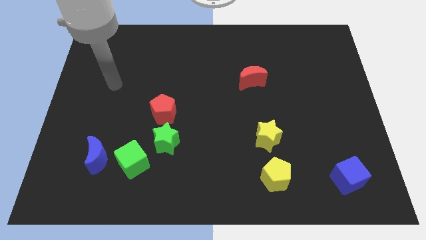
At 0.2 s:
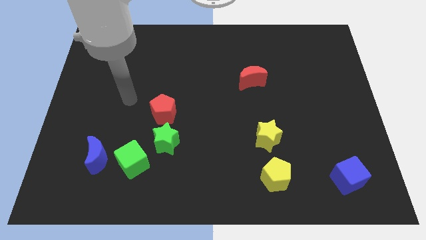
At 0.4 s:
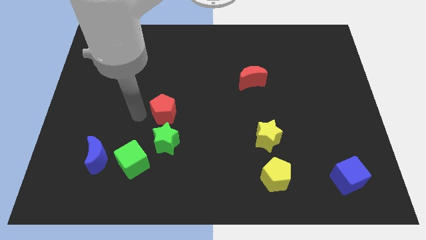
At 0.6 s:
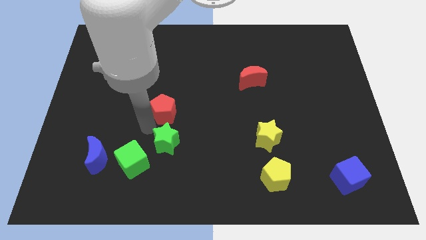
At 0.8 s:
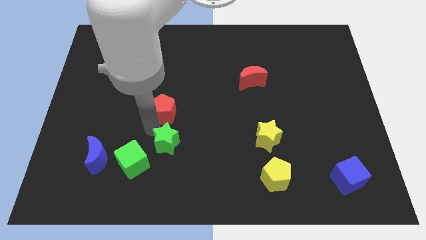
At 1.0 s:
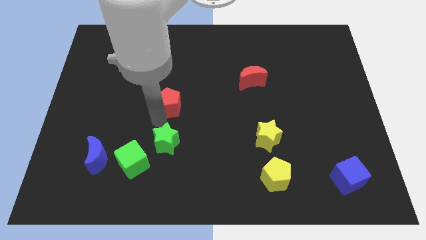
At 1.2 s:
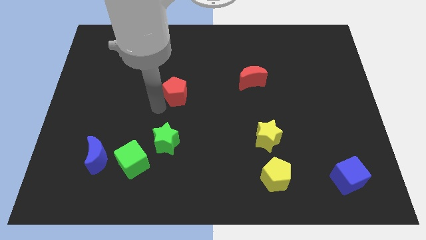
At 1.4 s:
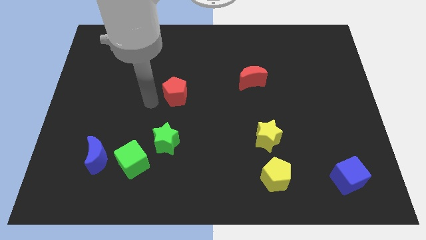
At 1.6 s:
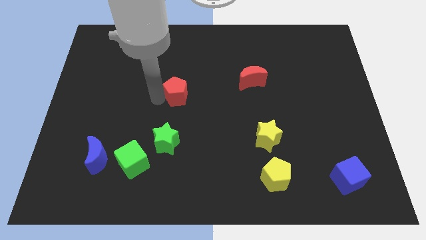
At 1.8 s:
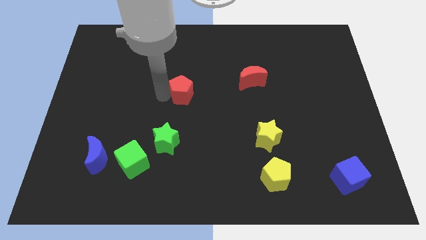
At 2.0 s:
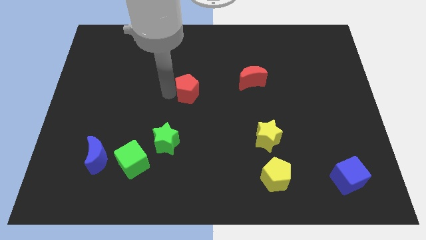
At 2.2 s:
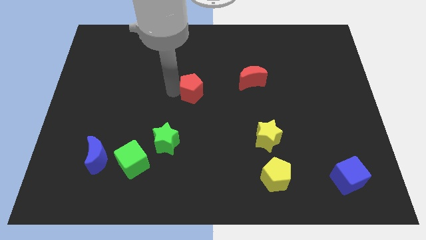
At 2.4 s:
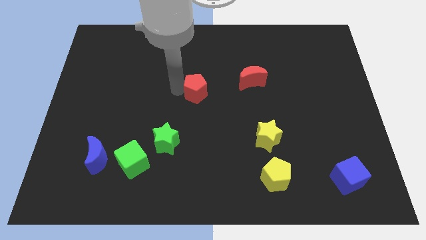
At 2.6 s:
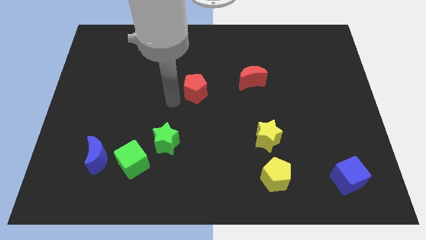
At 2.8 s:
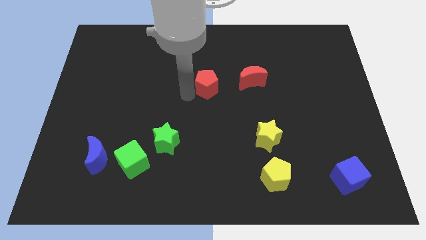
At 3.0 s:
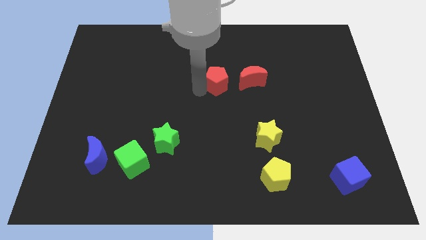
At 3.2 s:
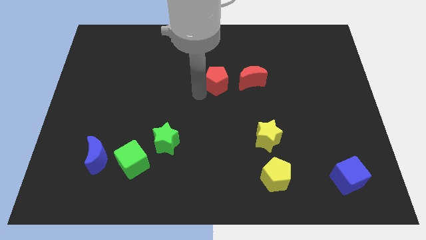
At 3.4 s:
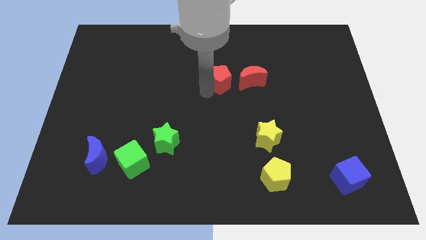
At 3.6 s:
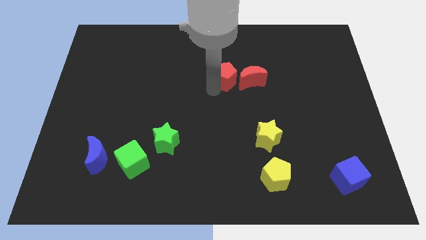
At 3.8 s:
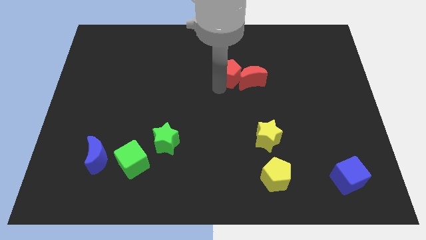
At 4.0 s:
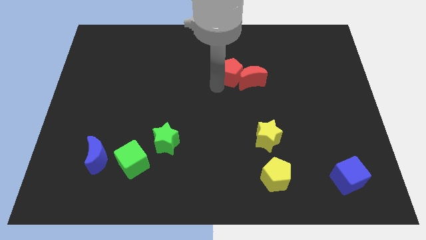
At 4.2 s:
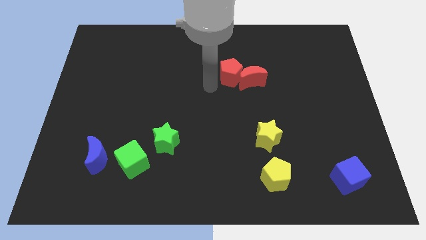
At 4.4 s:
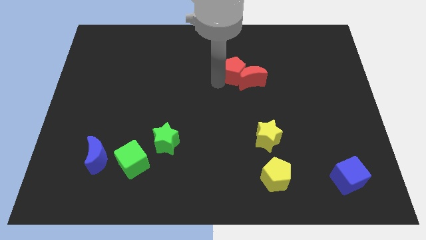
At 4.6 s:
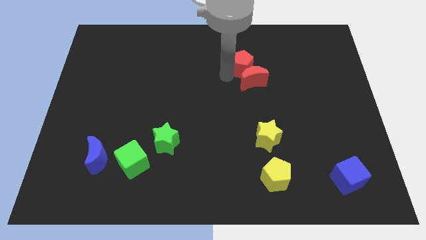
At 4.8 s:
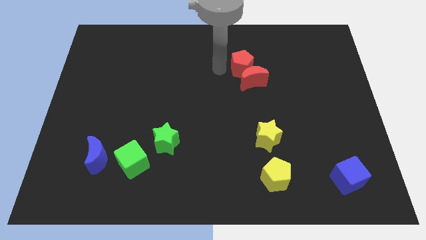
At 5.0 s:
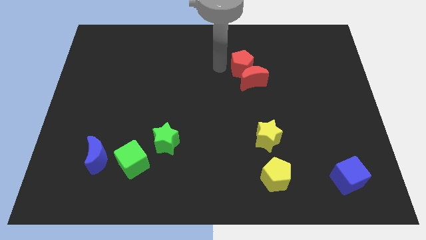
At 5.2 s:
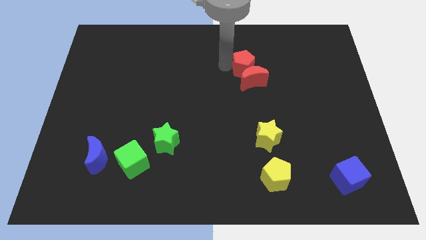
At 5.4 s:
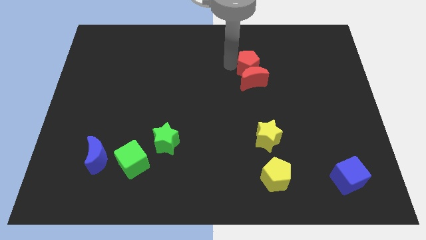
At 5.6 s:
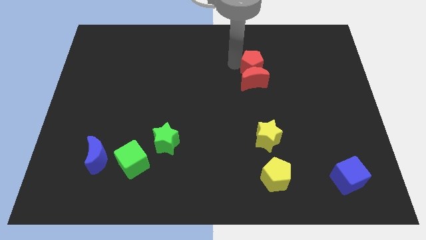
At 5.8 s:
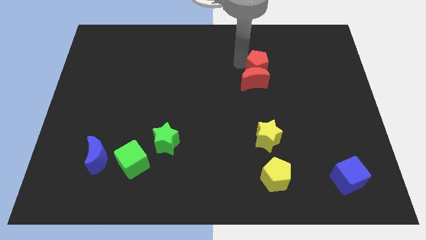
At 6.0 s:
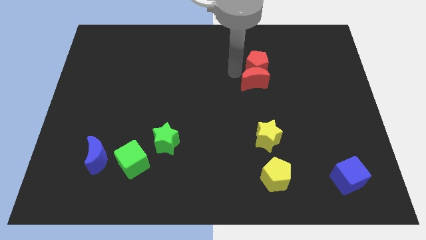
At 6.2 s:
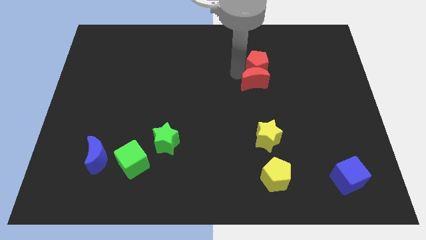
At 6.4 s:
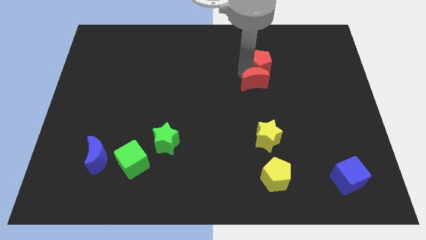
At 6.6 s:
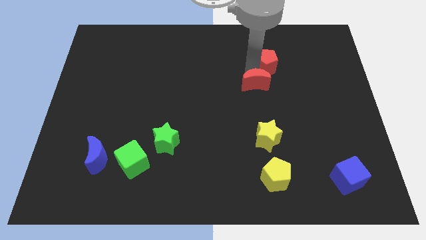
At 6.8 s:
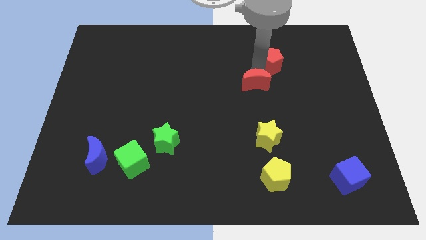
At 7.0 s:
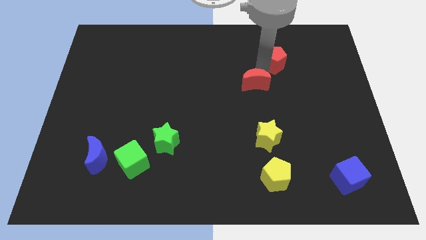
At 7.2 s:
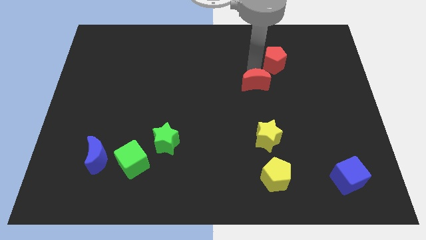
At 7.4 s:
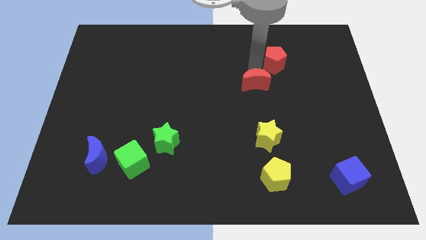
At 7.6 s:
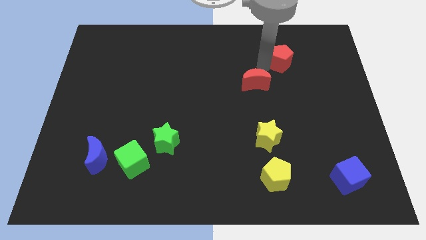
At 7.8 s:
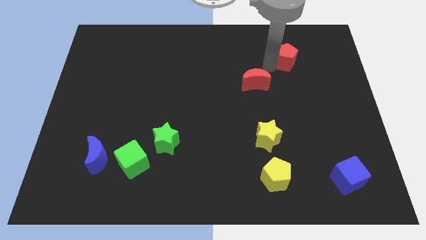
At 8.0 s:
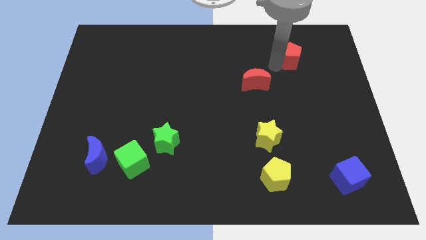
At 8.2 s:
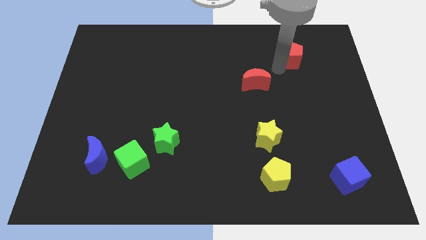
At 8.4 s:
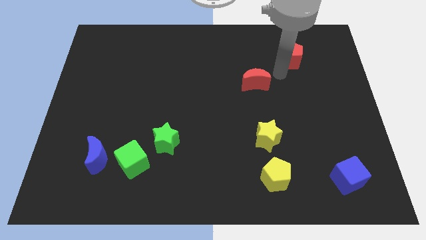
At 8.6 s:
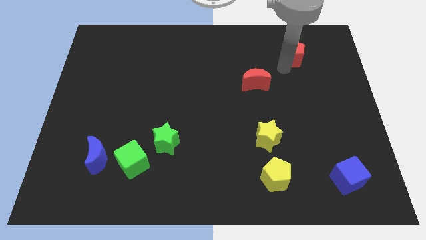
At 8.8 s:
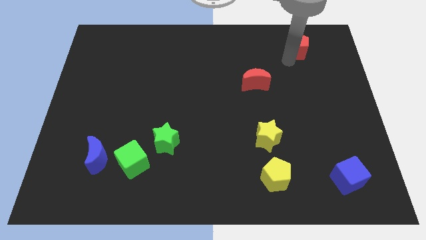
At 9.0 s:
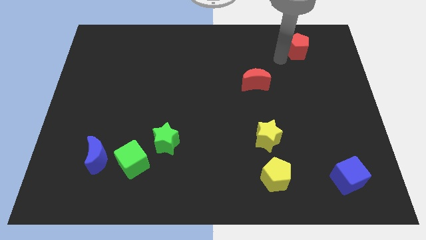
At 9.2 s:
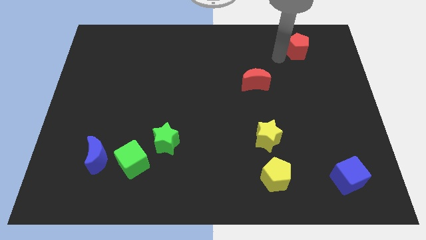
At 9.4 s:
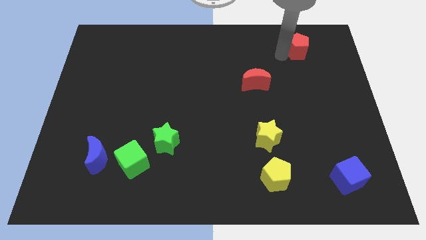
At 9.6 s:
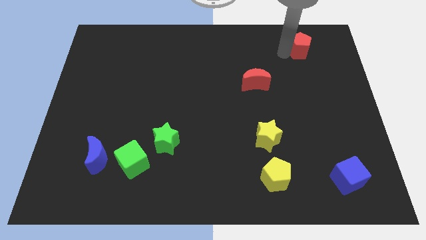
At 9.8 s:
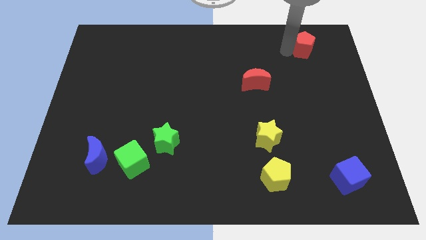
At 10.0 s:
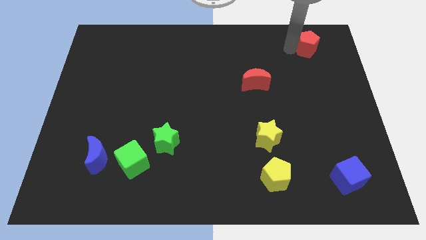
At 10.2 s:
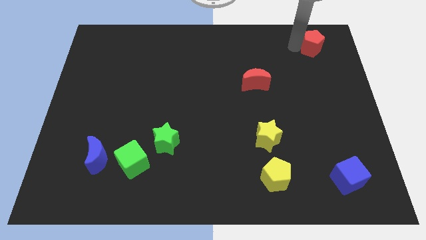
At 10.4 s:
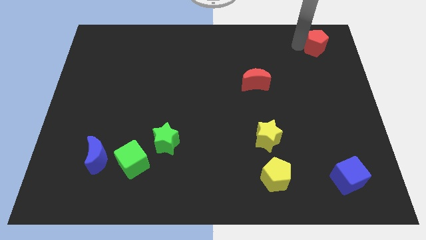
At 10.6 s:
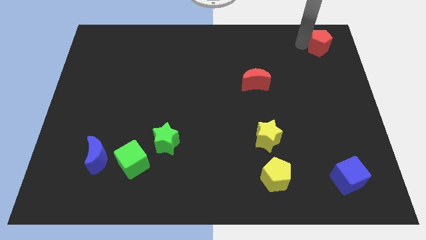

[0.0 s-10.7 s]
push the red pentagon to the top right
